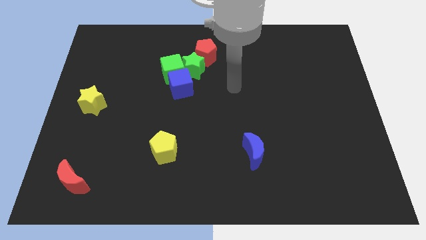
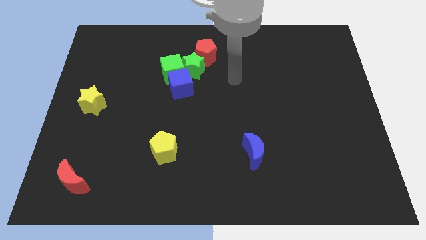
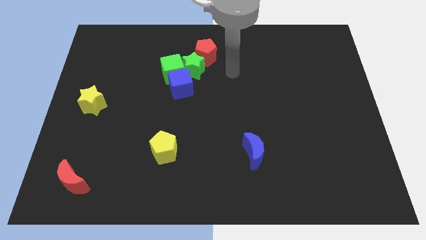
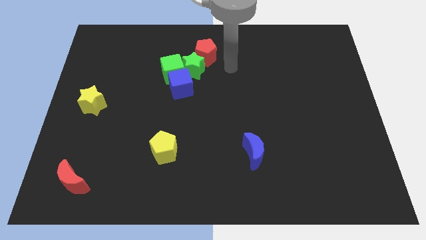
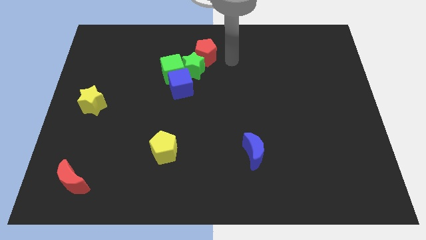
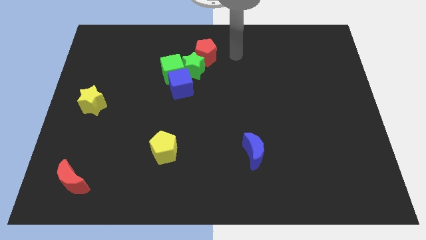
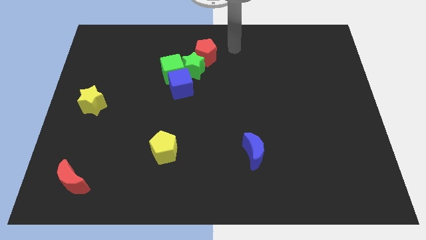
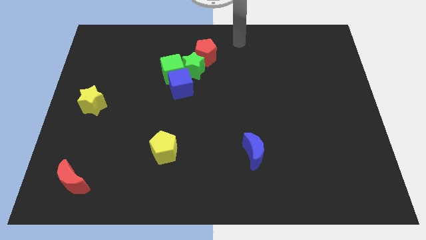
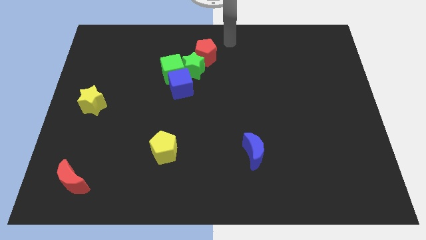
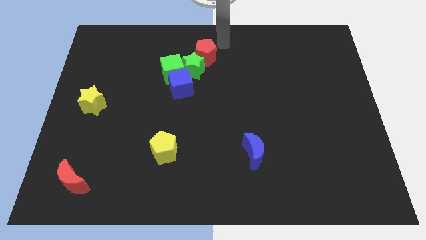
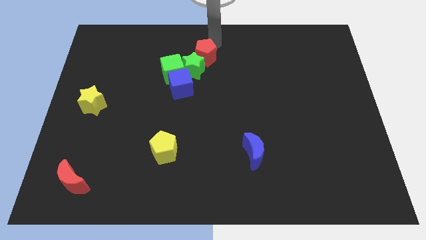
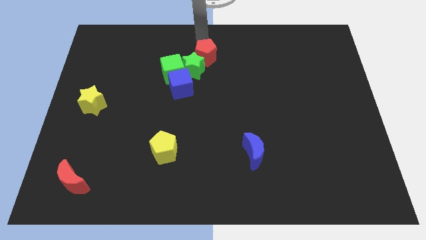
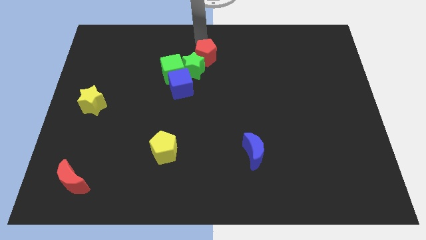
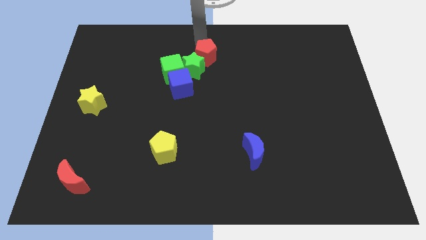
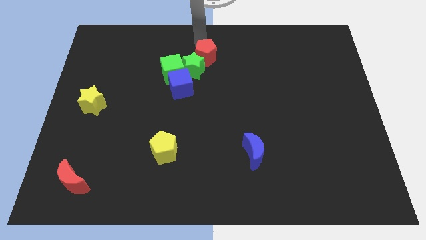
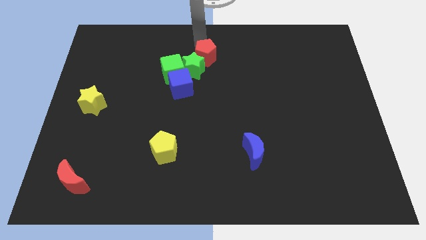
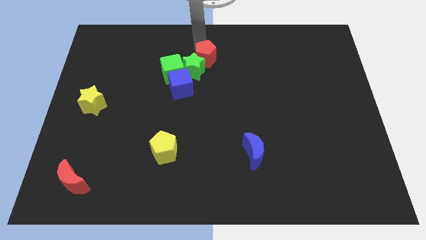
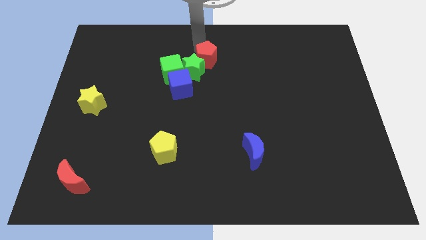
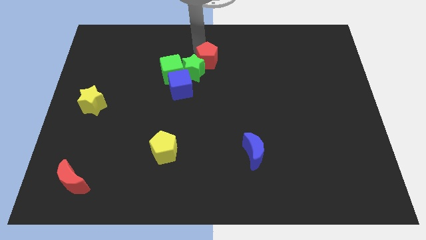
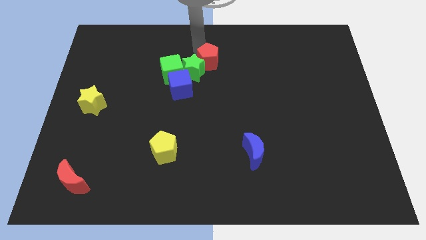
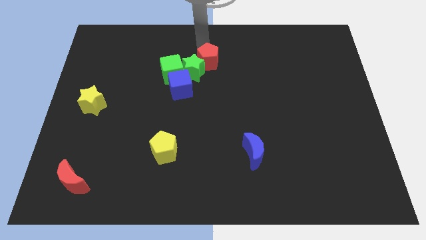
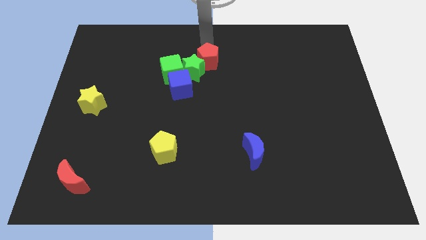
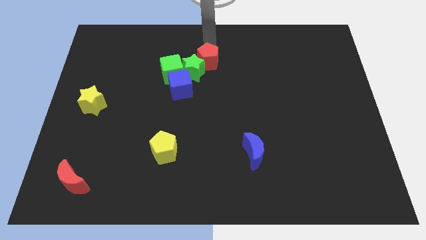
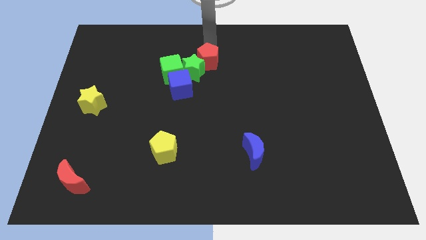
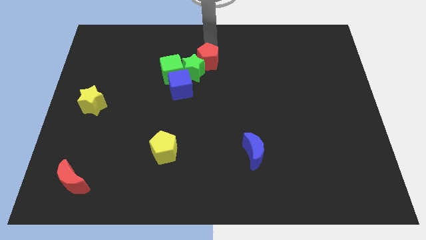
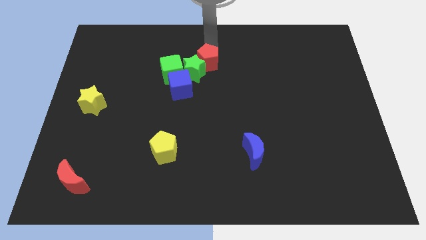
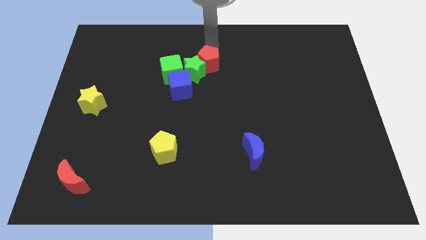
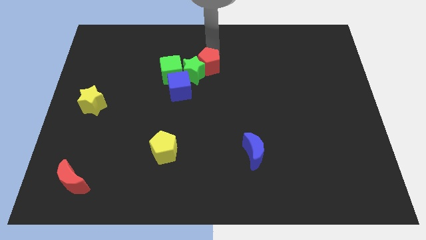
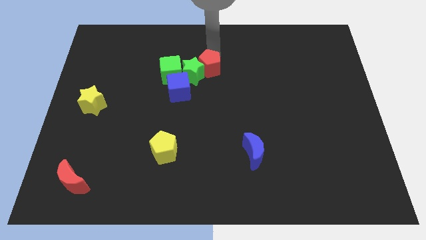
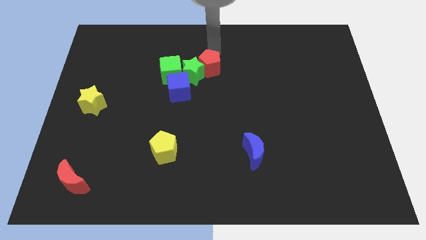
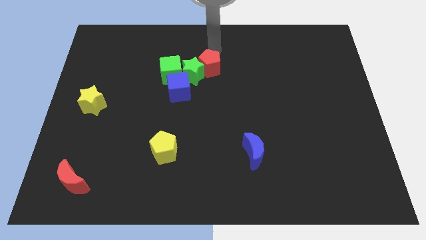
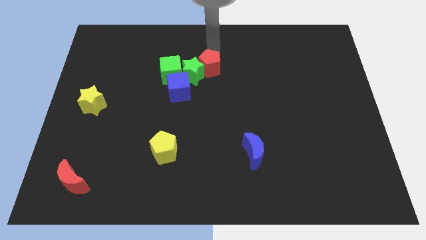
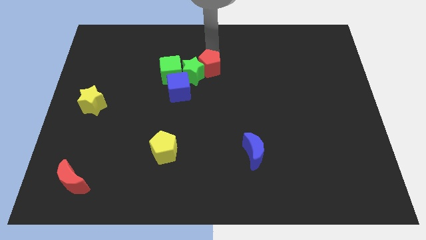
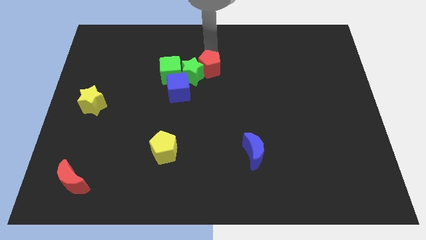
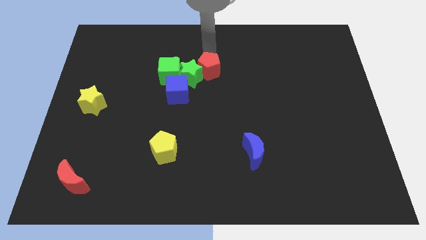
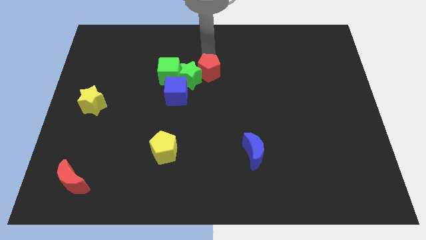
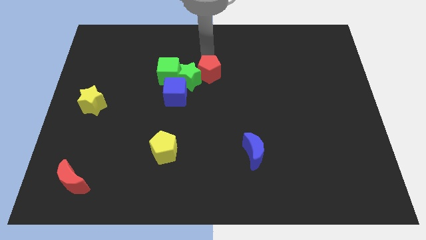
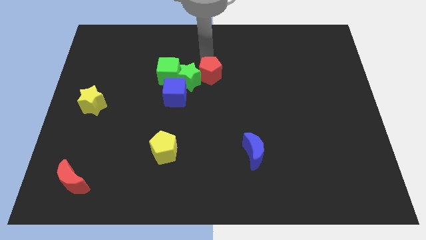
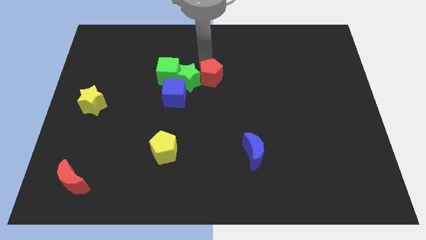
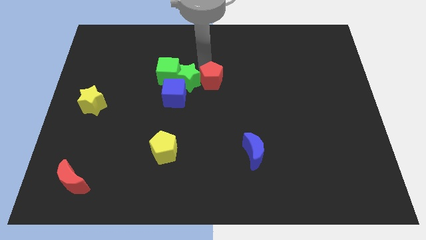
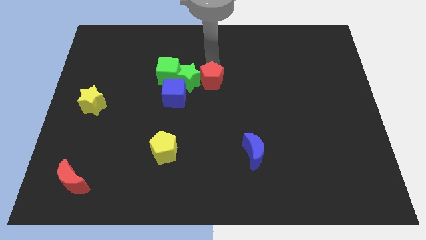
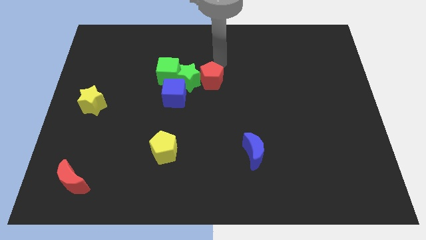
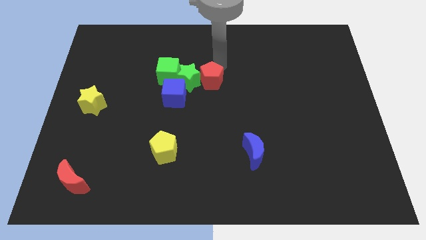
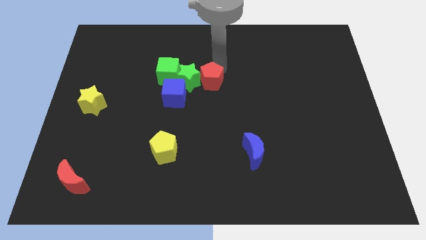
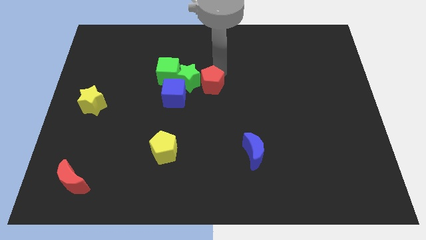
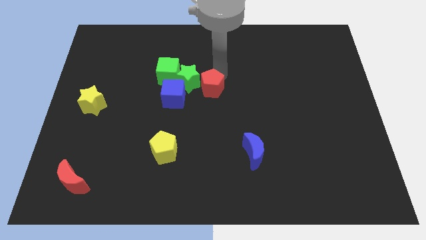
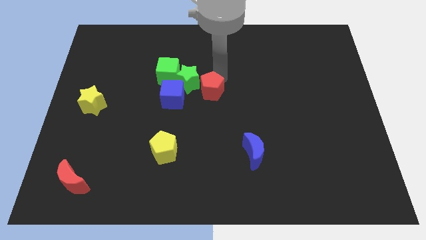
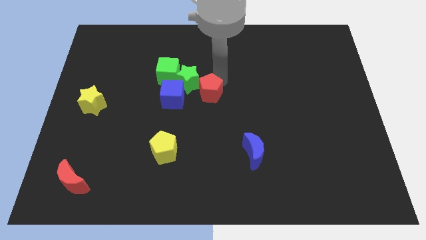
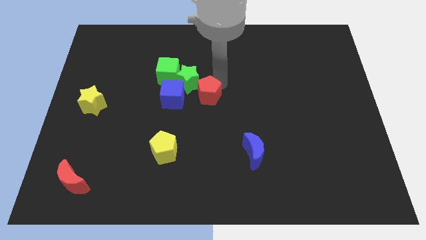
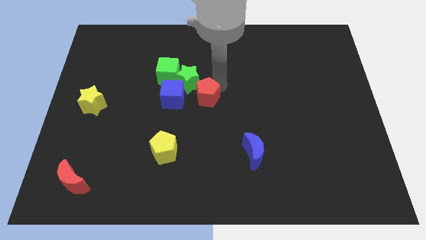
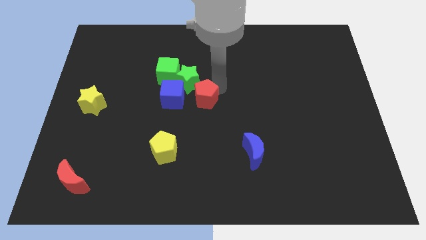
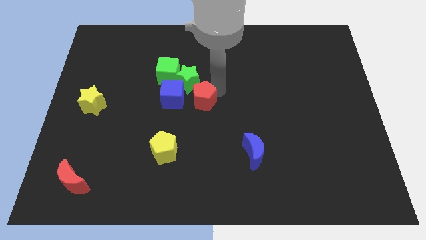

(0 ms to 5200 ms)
put the red pentagon to the bottom right of the blue cube

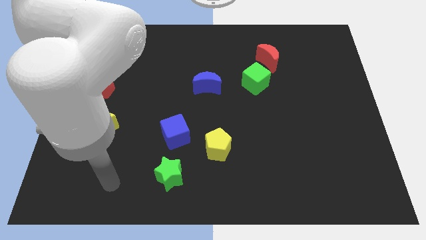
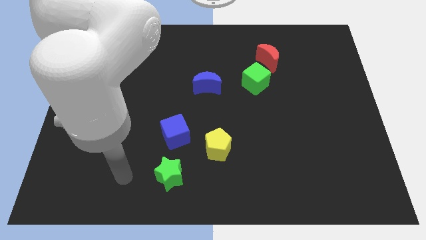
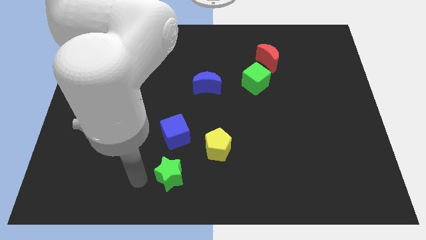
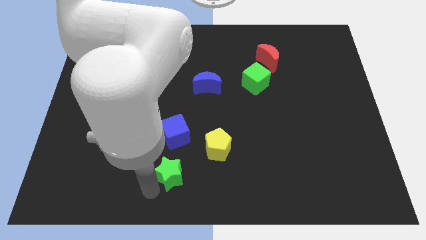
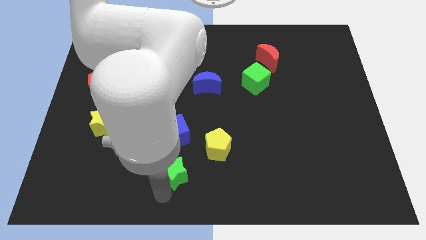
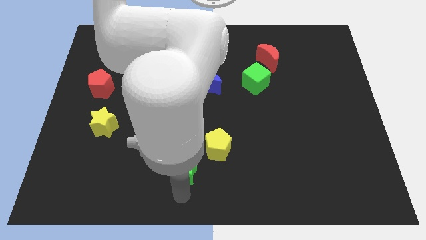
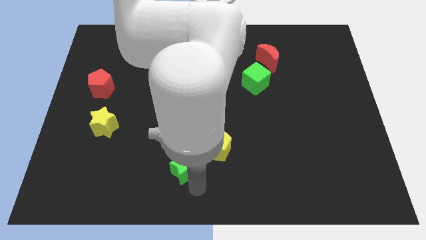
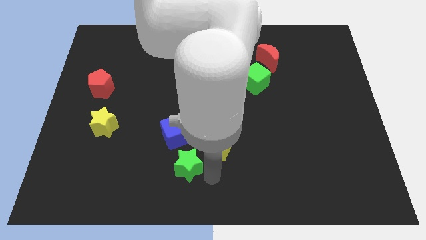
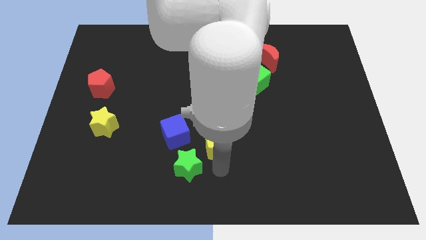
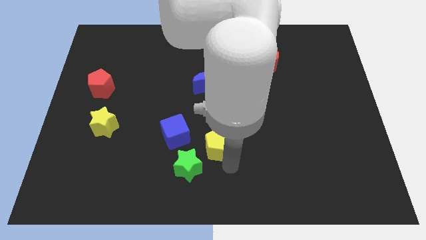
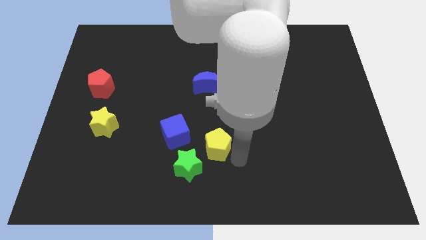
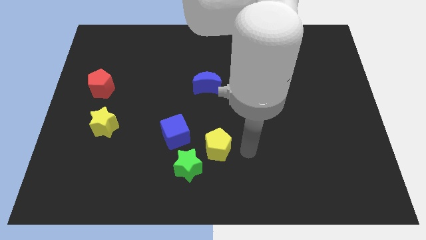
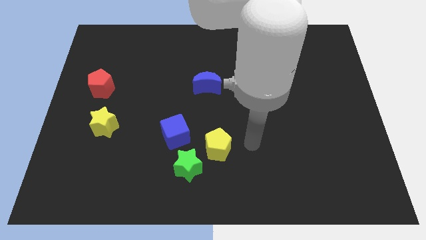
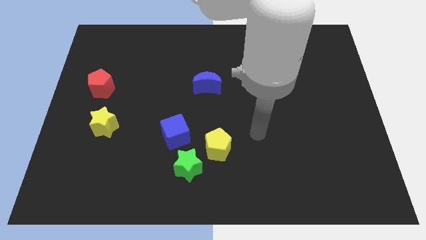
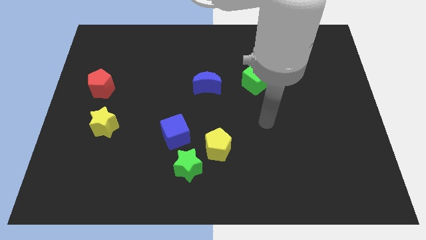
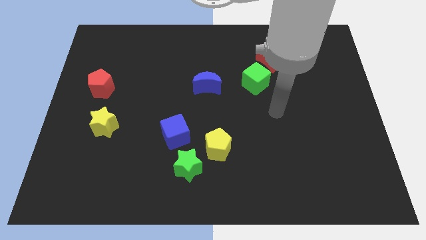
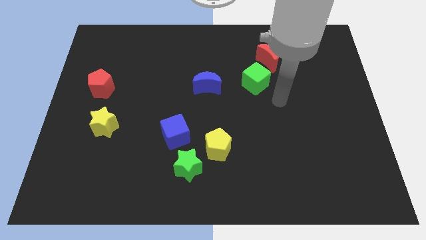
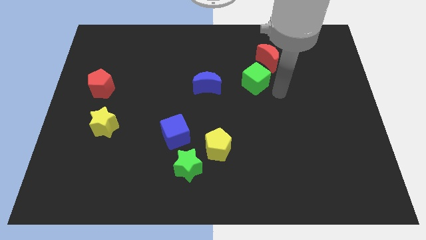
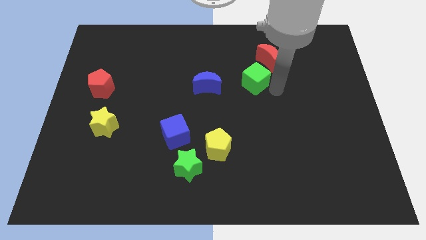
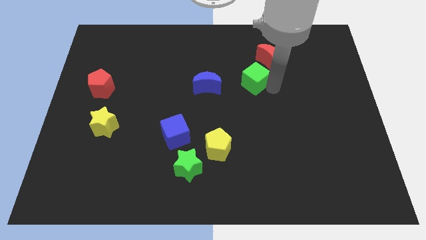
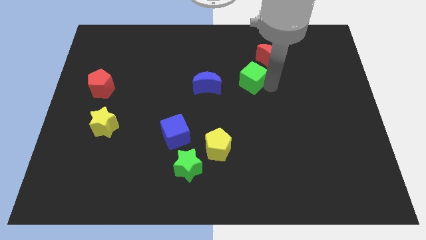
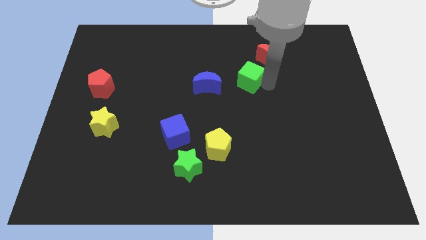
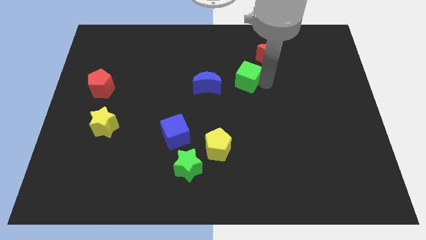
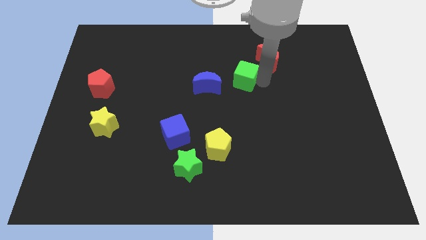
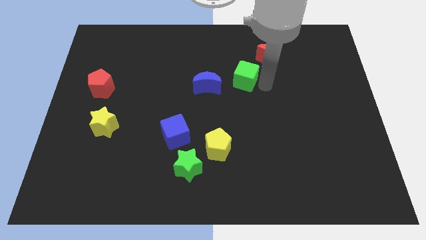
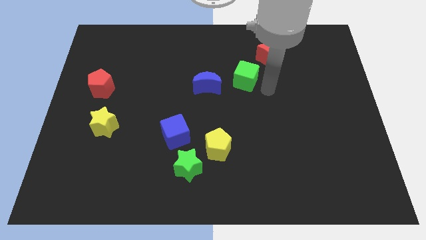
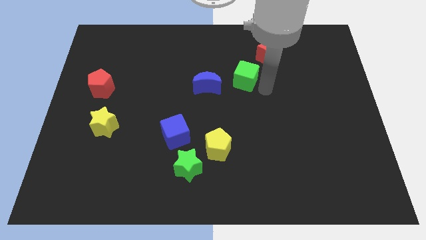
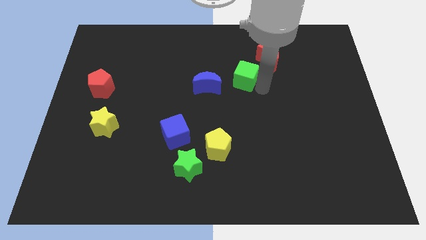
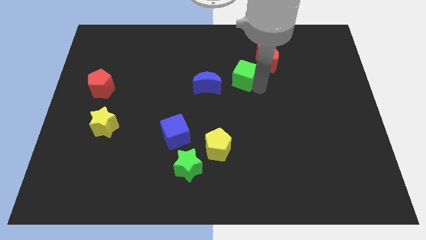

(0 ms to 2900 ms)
put the green cube diagonally up and to the right of the blue moon
